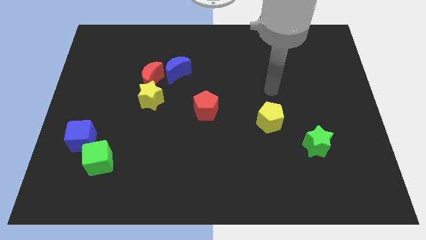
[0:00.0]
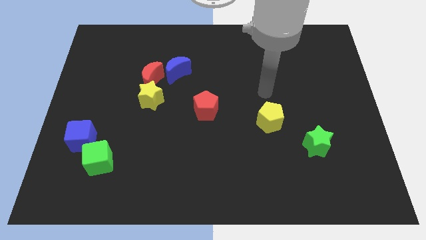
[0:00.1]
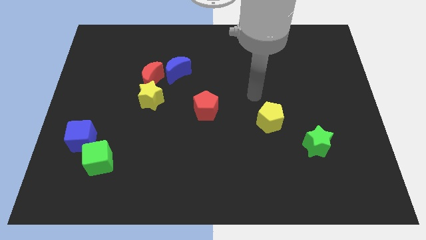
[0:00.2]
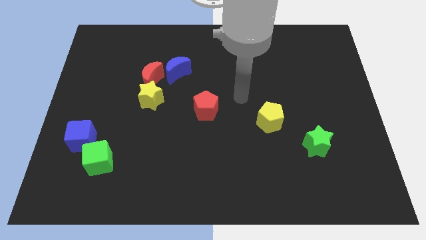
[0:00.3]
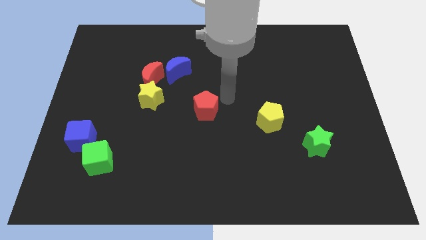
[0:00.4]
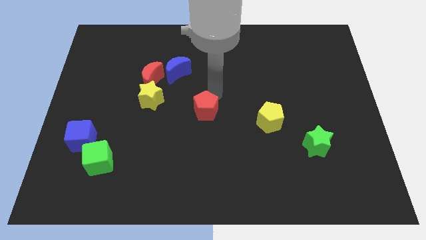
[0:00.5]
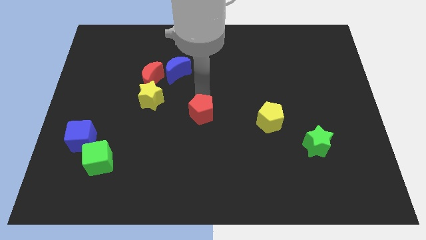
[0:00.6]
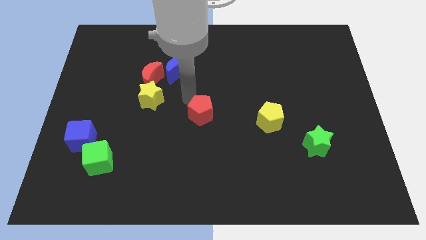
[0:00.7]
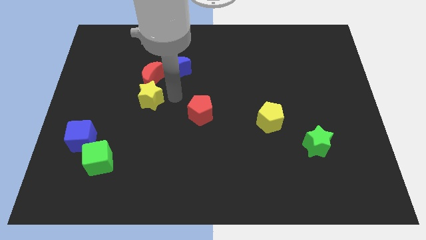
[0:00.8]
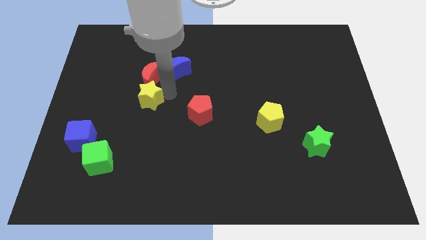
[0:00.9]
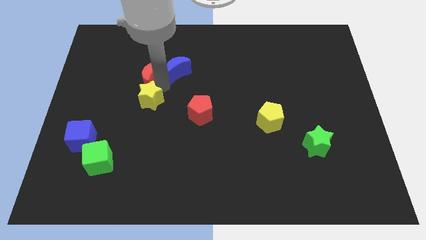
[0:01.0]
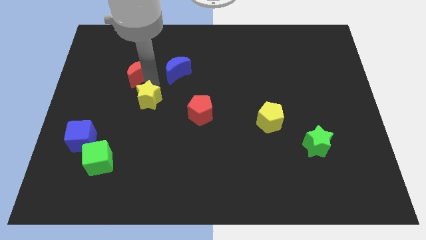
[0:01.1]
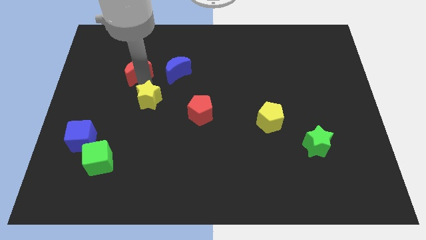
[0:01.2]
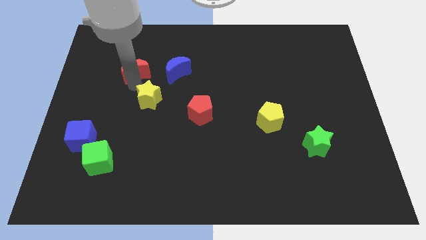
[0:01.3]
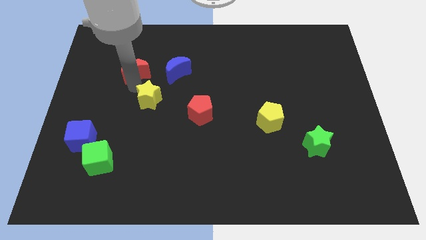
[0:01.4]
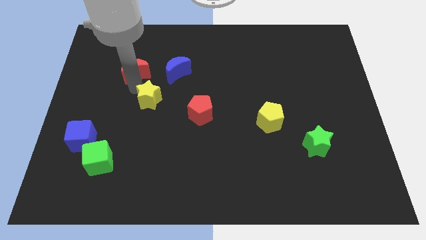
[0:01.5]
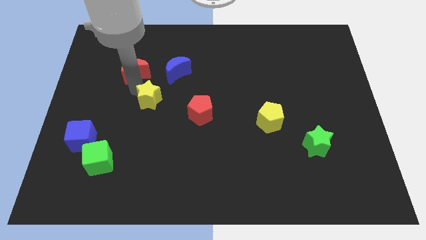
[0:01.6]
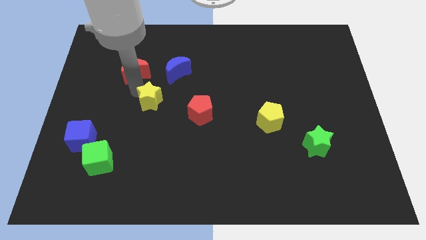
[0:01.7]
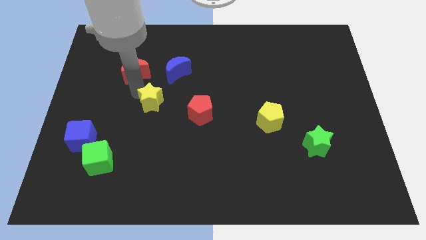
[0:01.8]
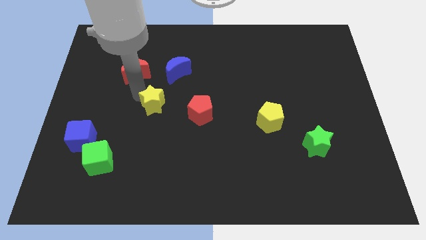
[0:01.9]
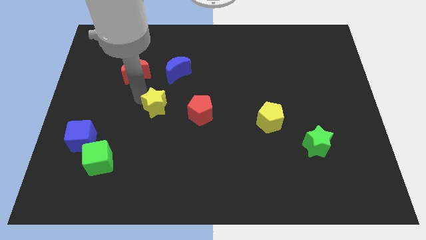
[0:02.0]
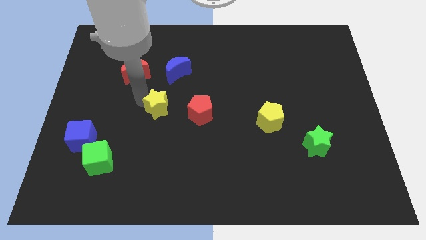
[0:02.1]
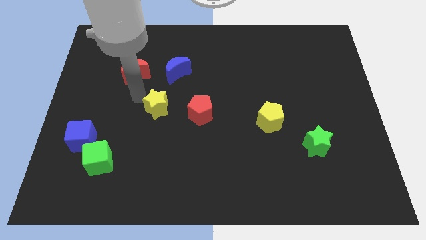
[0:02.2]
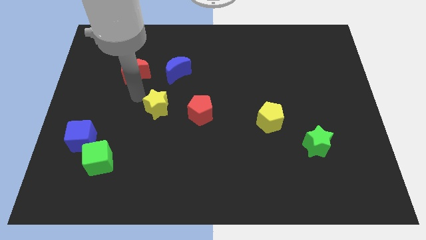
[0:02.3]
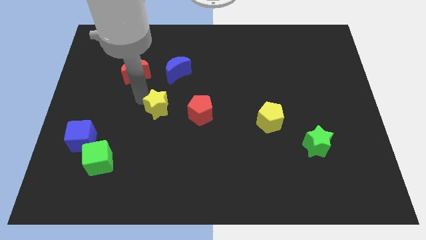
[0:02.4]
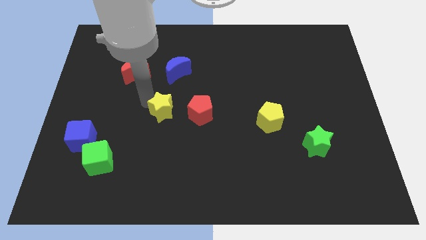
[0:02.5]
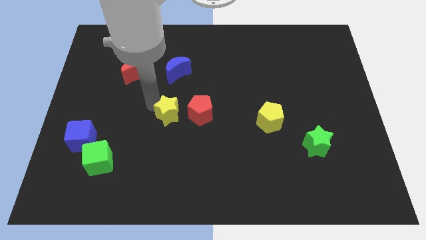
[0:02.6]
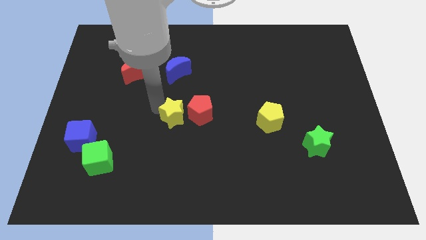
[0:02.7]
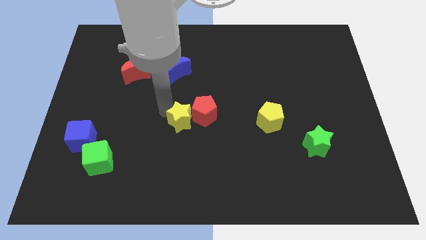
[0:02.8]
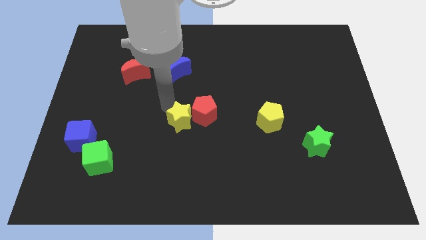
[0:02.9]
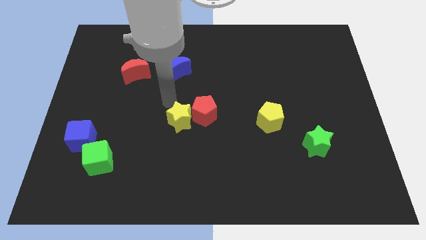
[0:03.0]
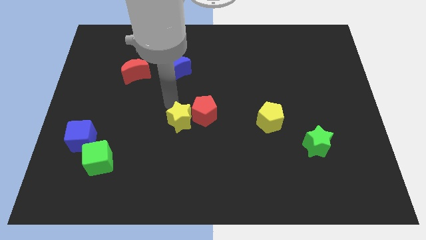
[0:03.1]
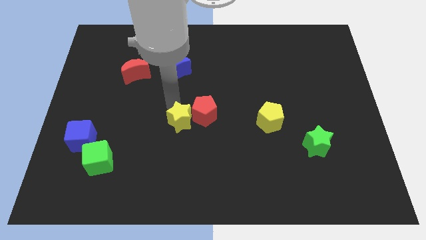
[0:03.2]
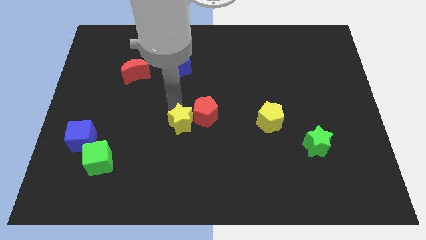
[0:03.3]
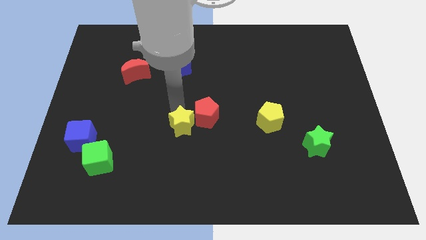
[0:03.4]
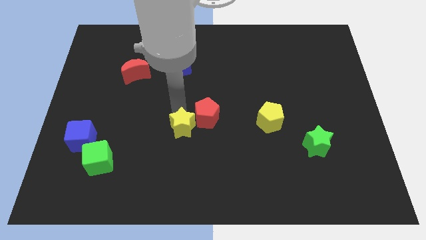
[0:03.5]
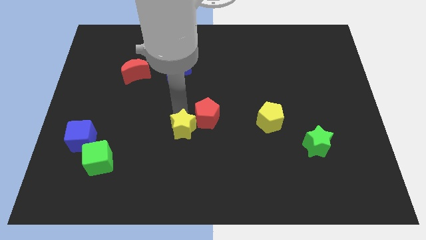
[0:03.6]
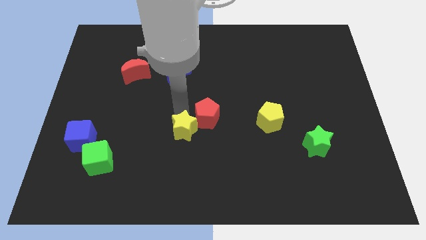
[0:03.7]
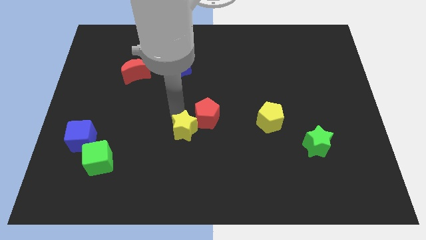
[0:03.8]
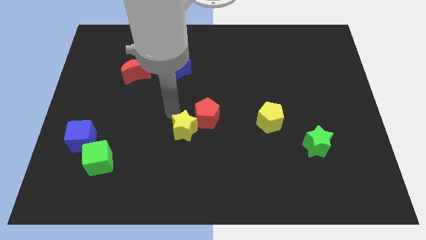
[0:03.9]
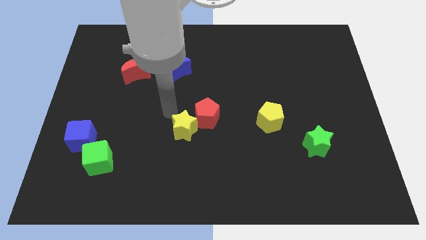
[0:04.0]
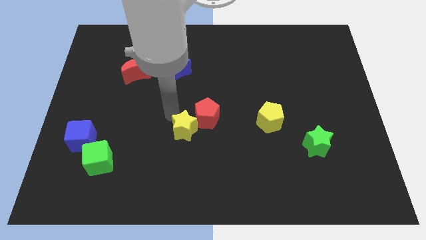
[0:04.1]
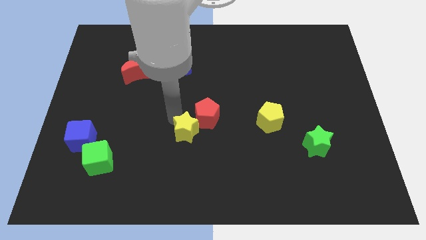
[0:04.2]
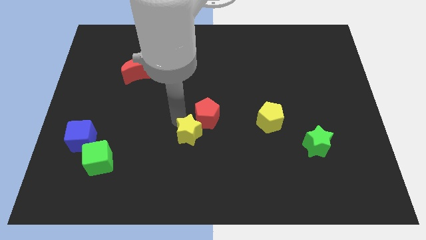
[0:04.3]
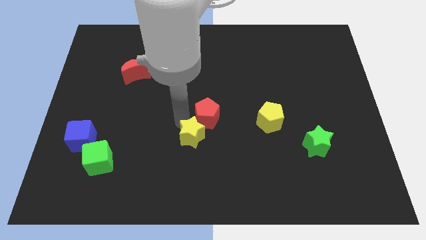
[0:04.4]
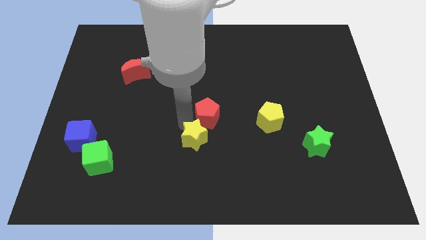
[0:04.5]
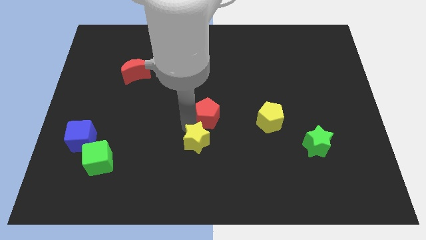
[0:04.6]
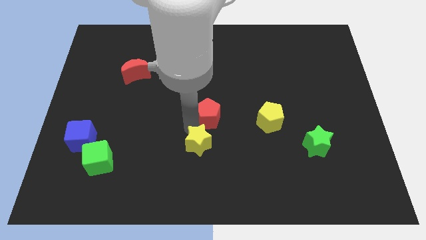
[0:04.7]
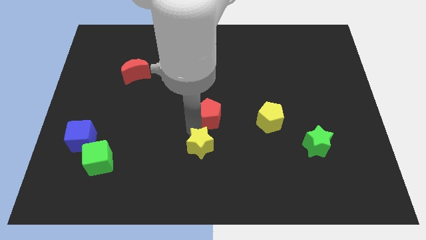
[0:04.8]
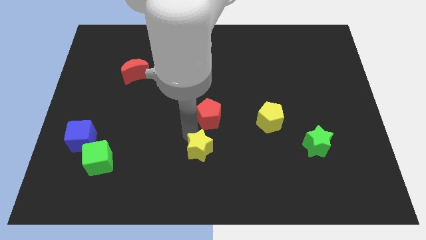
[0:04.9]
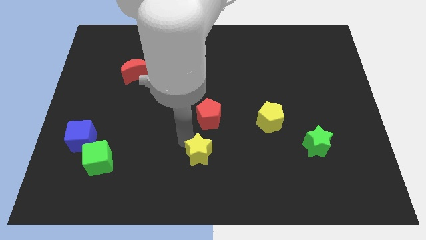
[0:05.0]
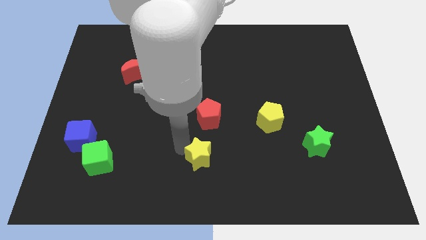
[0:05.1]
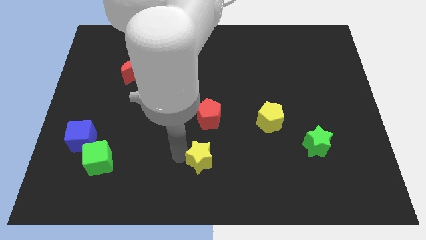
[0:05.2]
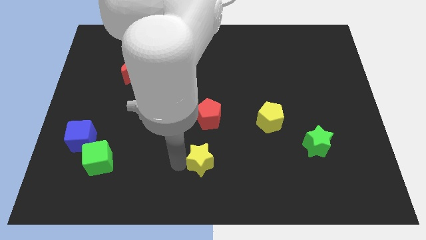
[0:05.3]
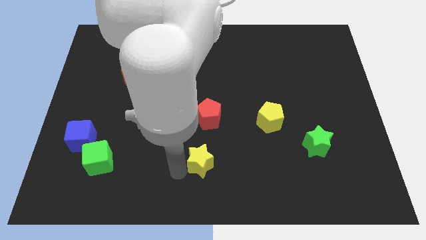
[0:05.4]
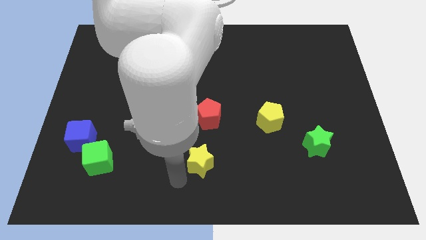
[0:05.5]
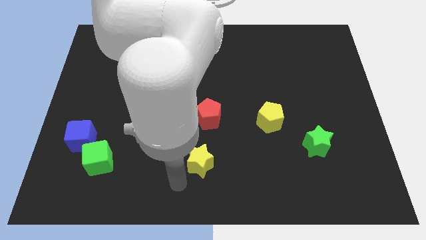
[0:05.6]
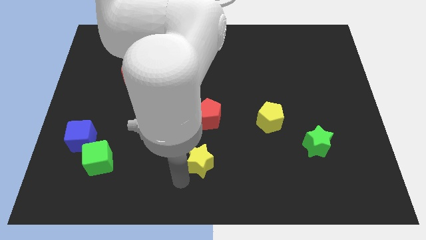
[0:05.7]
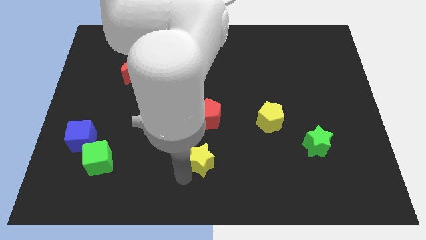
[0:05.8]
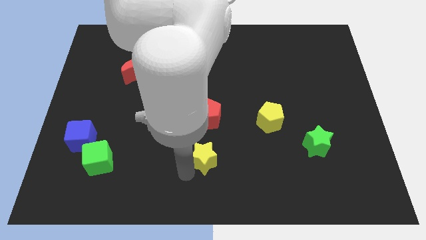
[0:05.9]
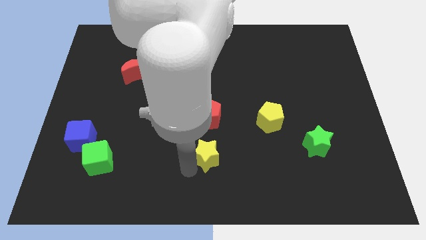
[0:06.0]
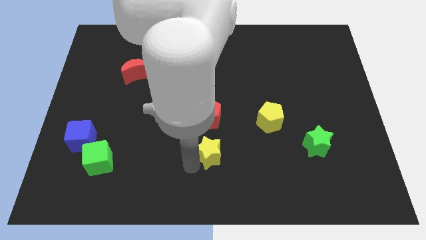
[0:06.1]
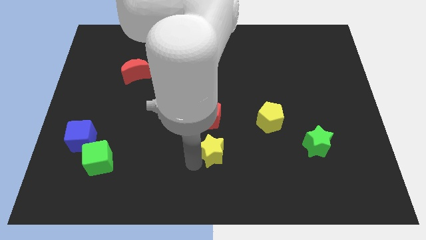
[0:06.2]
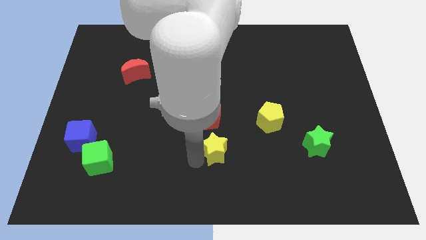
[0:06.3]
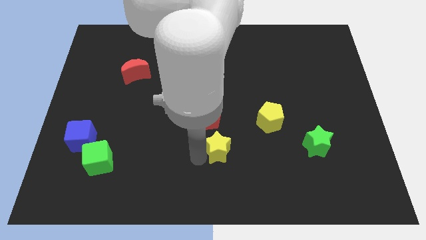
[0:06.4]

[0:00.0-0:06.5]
move the yellow star to the bottom right of the red pentagon
